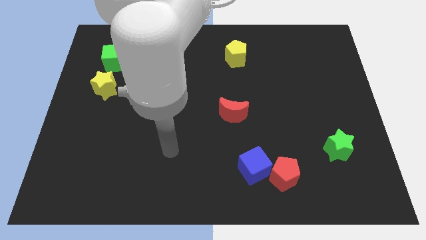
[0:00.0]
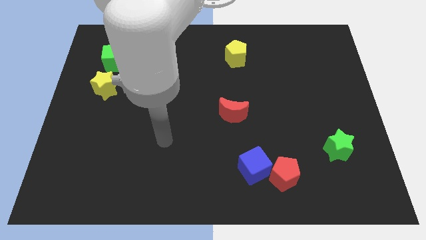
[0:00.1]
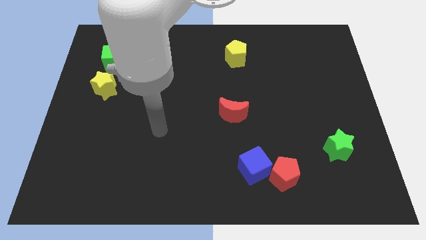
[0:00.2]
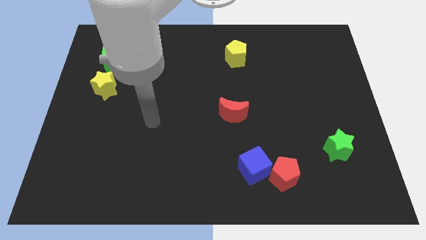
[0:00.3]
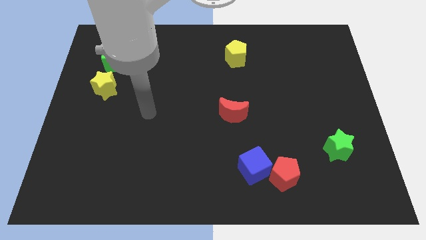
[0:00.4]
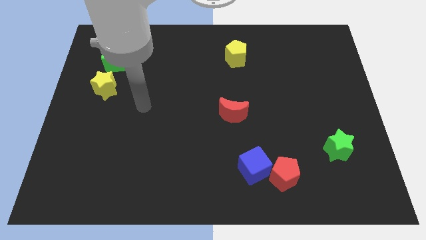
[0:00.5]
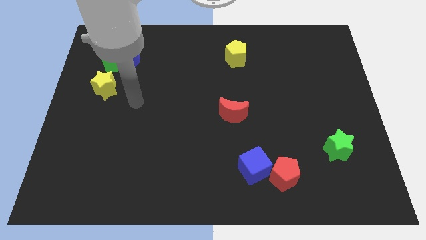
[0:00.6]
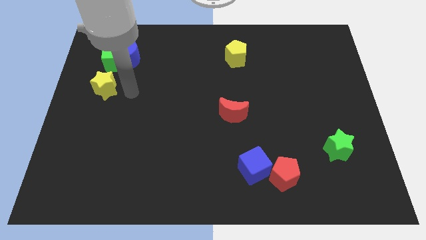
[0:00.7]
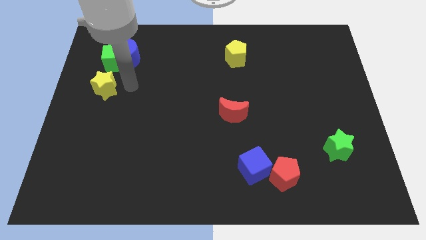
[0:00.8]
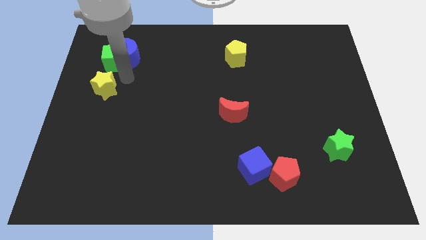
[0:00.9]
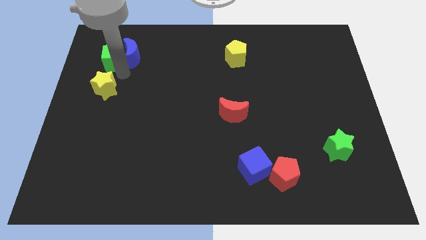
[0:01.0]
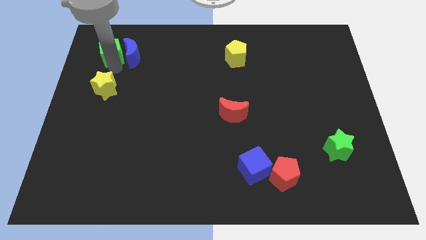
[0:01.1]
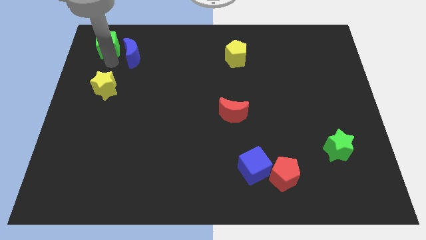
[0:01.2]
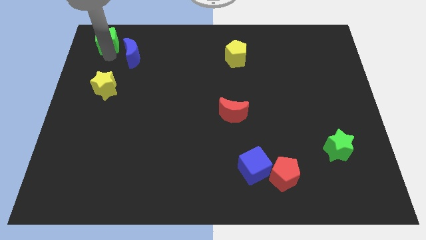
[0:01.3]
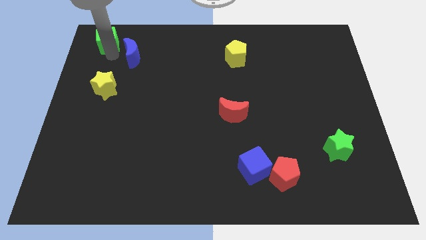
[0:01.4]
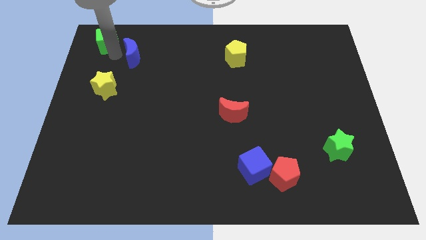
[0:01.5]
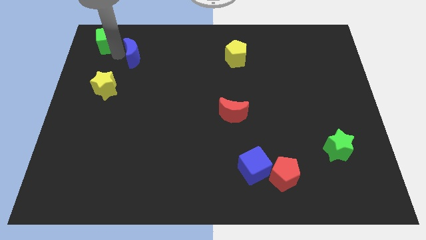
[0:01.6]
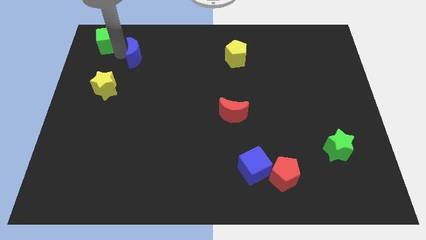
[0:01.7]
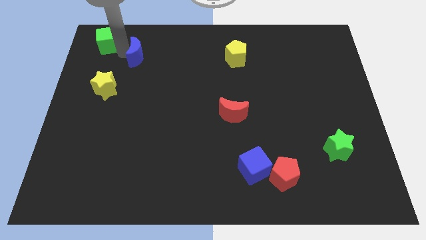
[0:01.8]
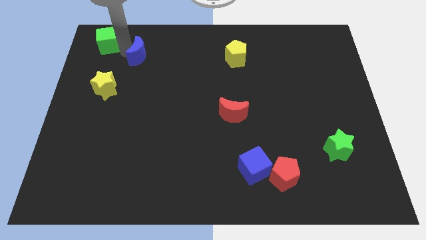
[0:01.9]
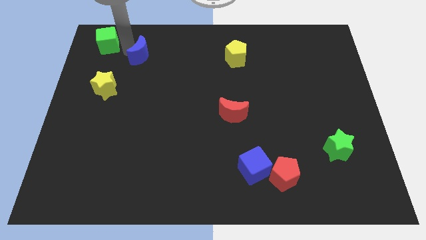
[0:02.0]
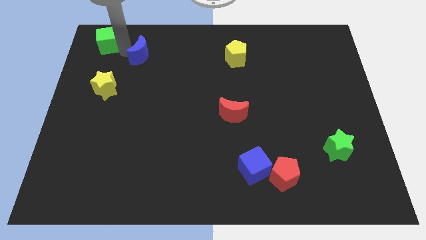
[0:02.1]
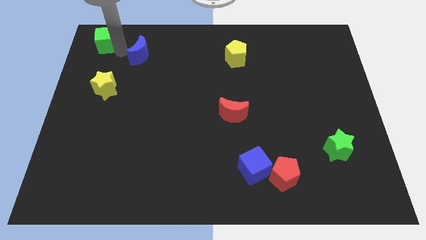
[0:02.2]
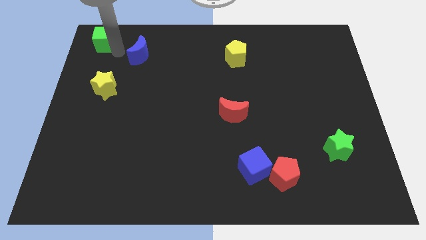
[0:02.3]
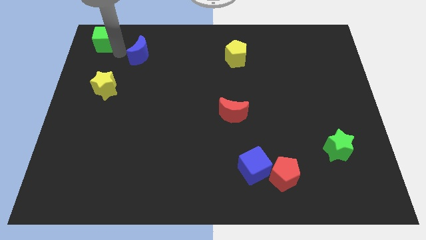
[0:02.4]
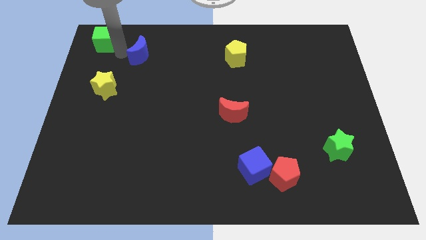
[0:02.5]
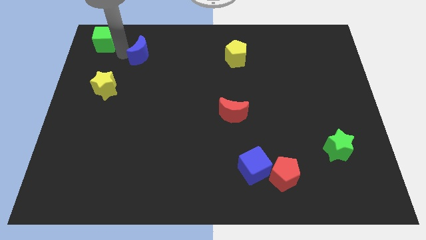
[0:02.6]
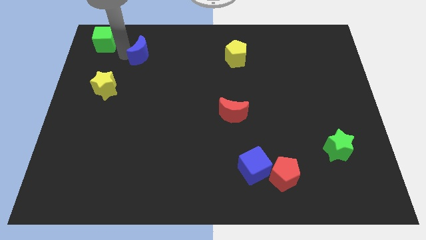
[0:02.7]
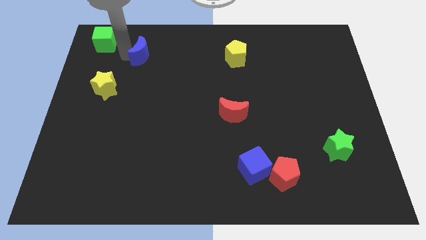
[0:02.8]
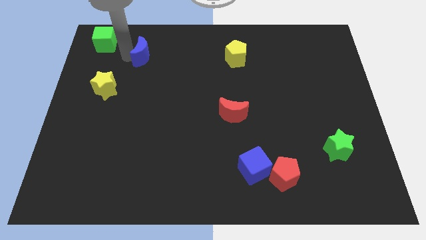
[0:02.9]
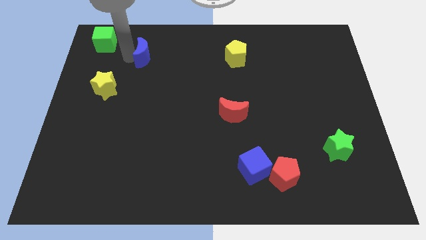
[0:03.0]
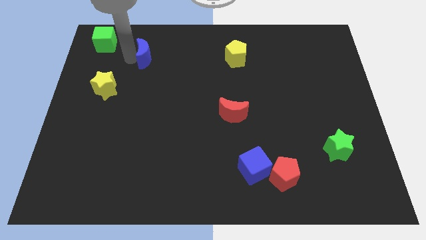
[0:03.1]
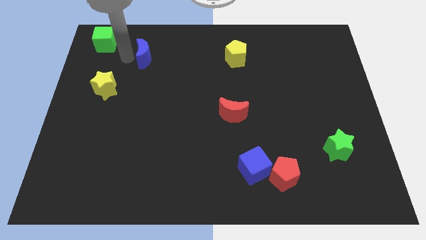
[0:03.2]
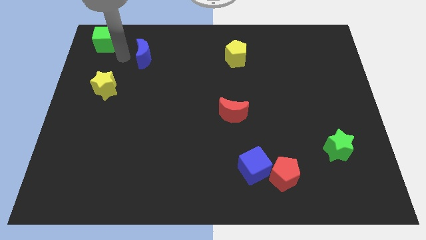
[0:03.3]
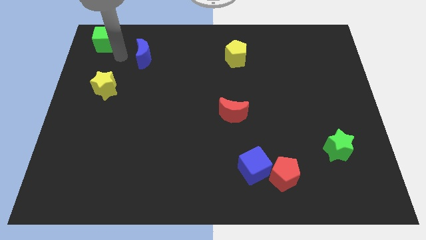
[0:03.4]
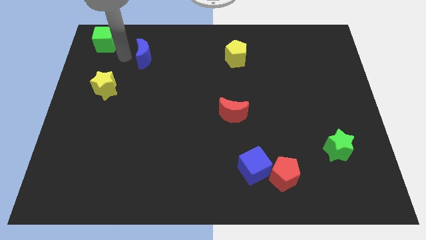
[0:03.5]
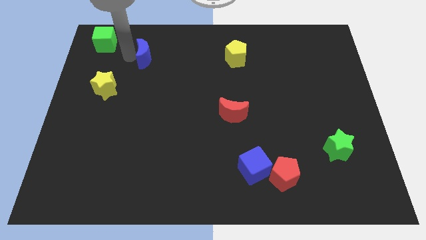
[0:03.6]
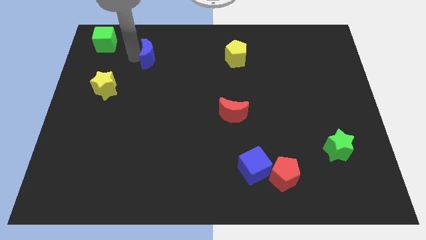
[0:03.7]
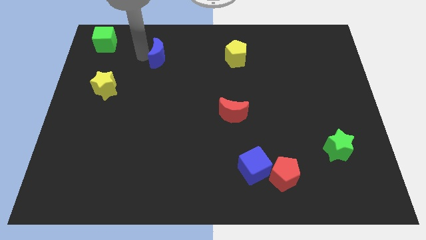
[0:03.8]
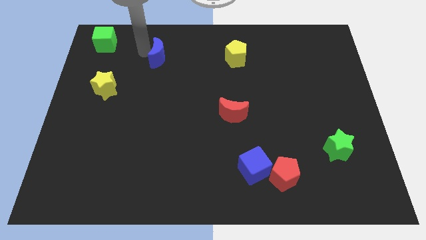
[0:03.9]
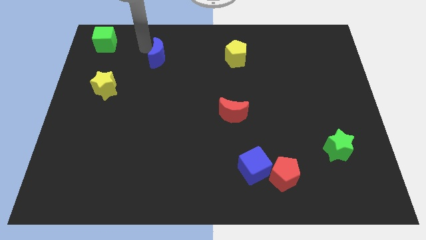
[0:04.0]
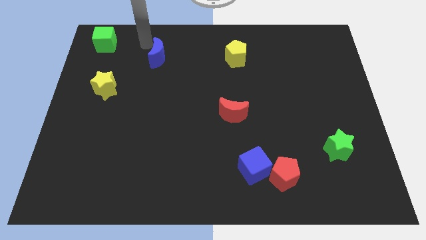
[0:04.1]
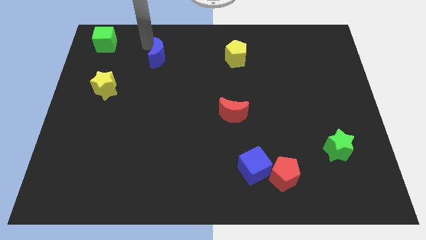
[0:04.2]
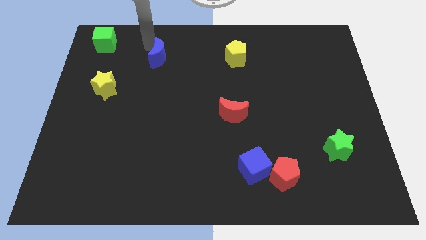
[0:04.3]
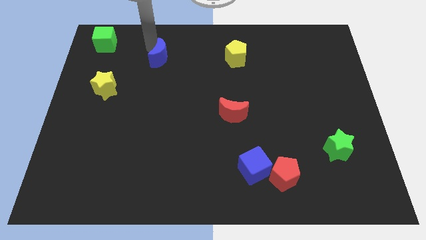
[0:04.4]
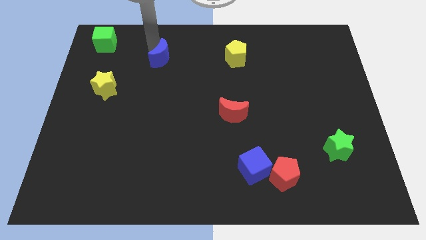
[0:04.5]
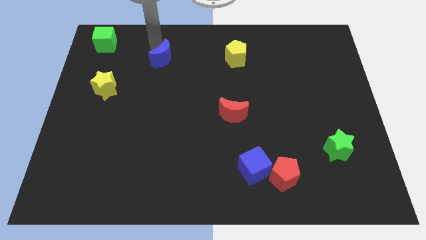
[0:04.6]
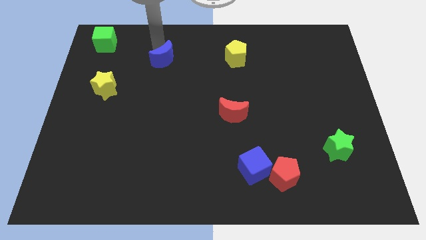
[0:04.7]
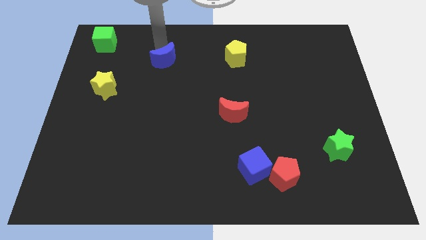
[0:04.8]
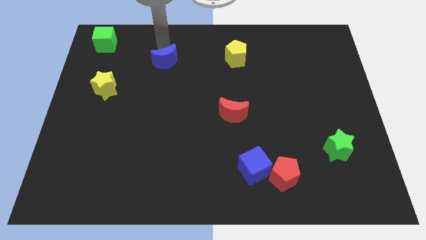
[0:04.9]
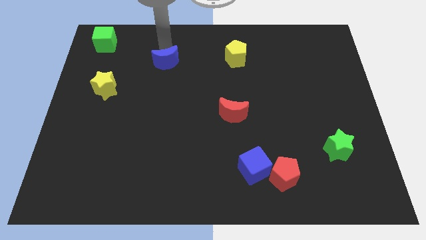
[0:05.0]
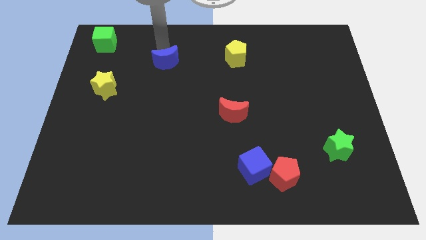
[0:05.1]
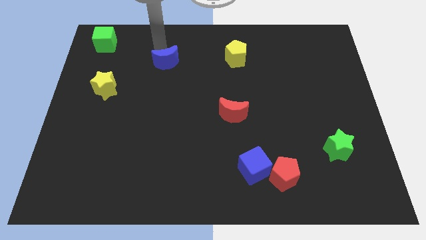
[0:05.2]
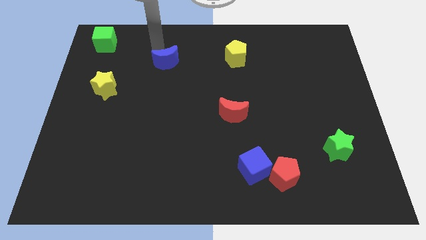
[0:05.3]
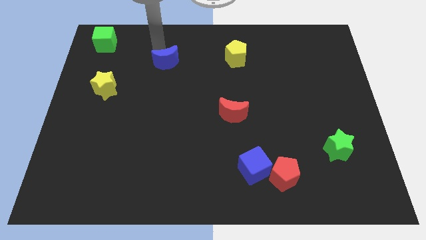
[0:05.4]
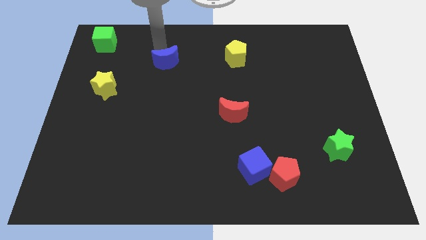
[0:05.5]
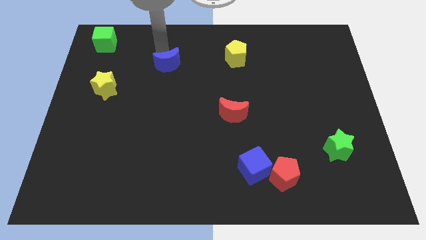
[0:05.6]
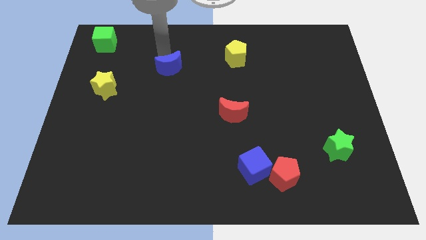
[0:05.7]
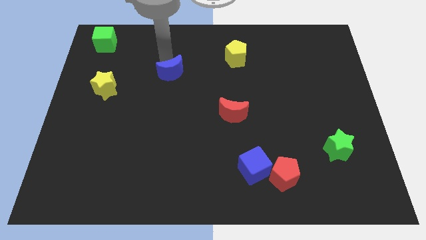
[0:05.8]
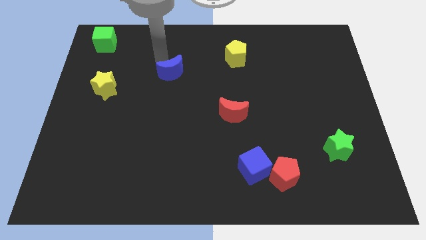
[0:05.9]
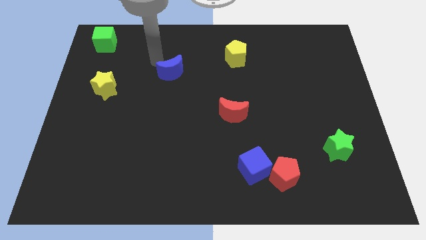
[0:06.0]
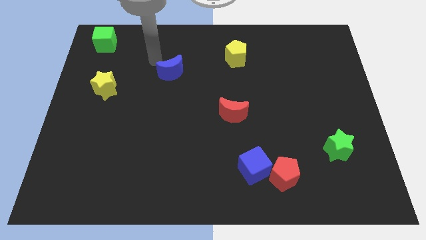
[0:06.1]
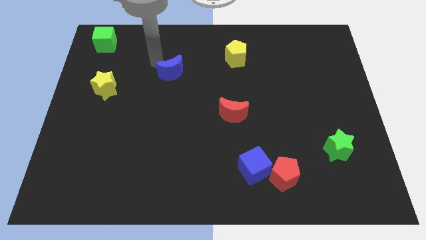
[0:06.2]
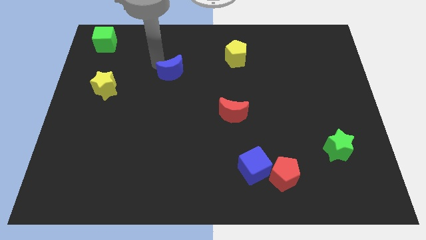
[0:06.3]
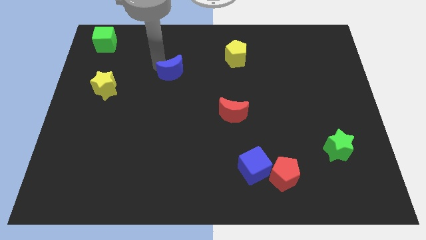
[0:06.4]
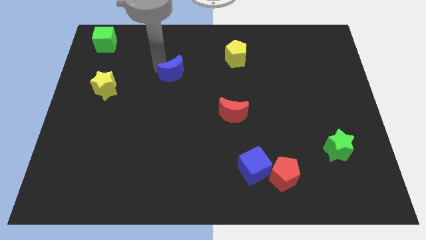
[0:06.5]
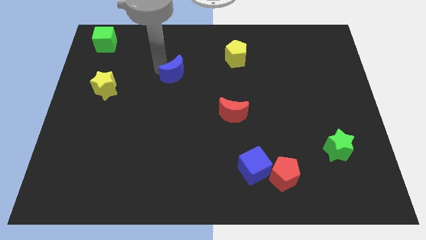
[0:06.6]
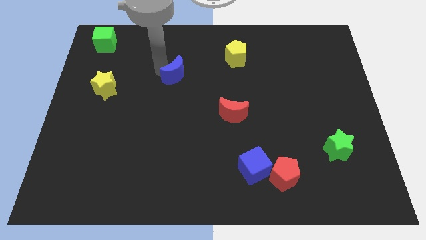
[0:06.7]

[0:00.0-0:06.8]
move the blue moon to the center
